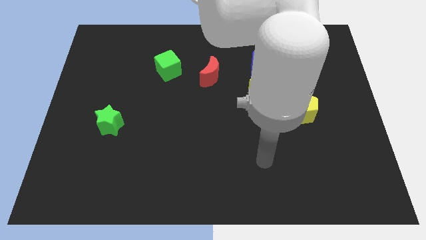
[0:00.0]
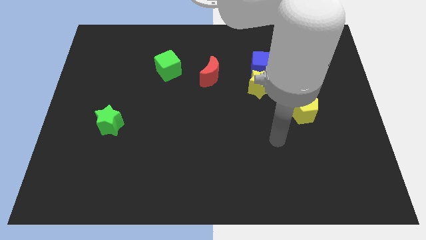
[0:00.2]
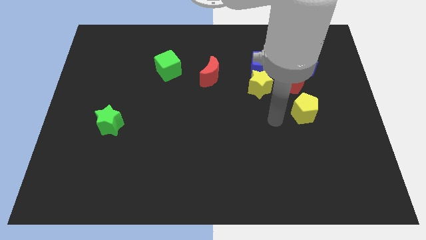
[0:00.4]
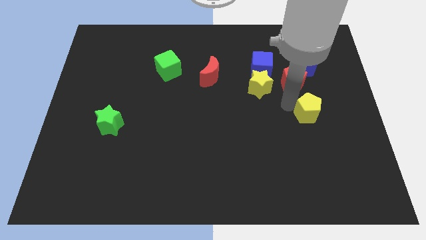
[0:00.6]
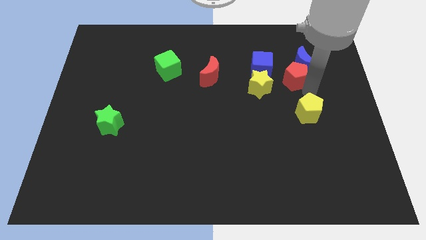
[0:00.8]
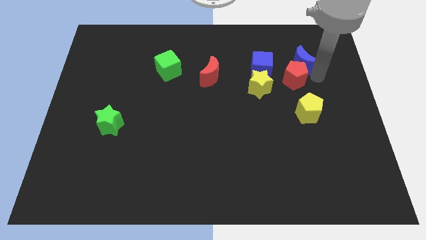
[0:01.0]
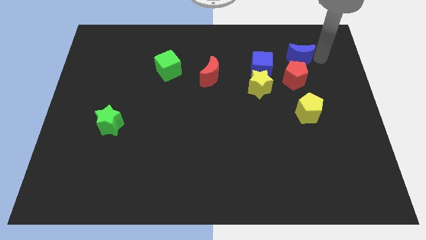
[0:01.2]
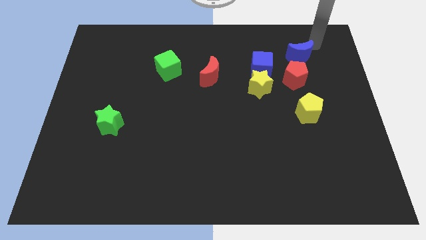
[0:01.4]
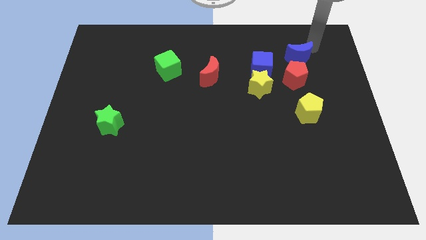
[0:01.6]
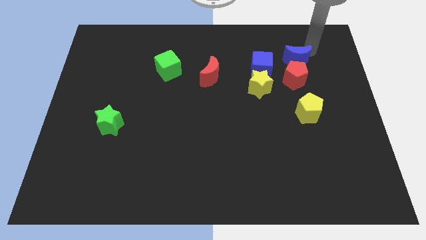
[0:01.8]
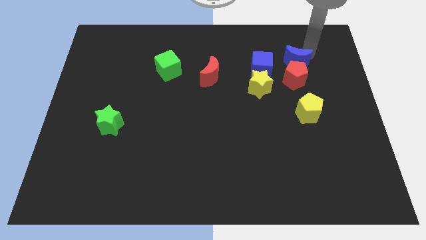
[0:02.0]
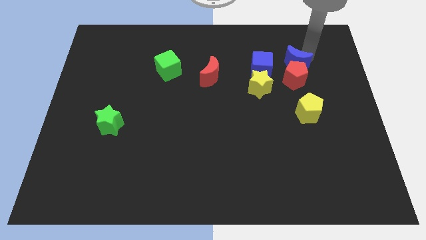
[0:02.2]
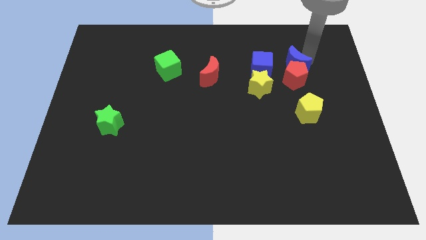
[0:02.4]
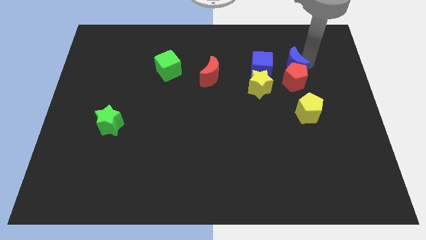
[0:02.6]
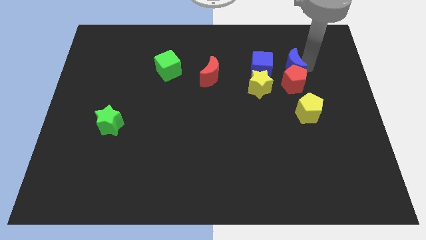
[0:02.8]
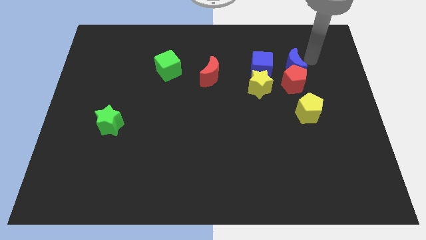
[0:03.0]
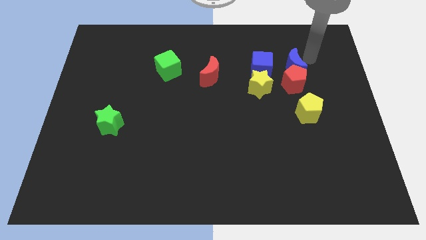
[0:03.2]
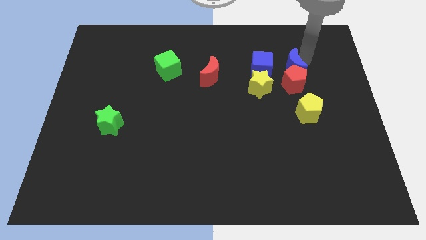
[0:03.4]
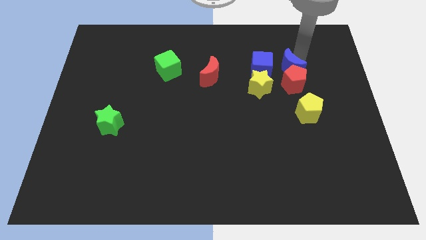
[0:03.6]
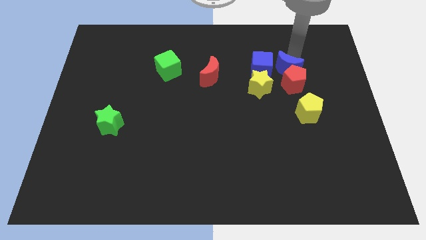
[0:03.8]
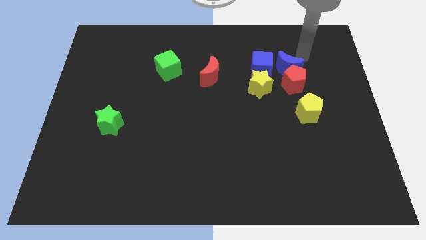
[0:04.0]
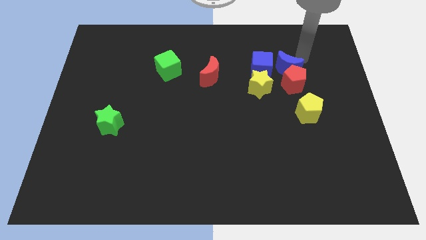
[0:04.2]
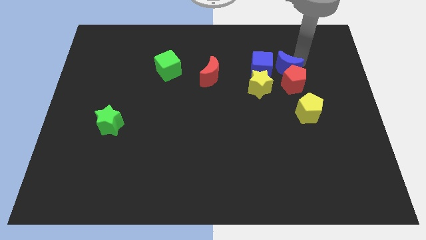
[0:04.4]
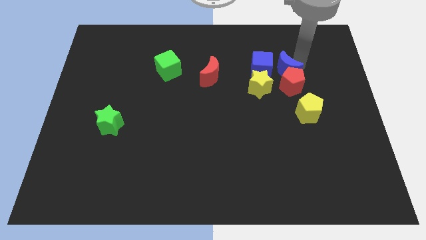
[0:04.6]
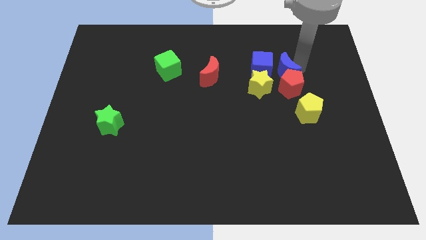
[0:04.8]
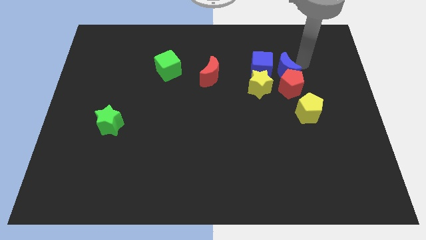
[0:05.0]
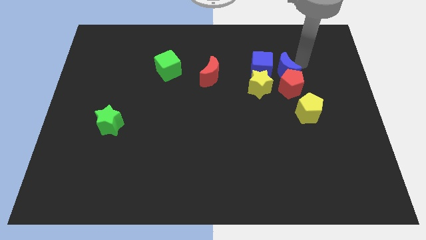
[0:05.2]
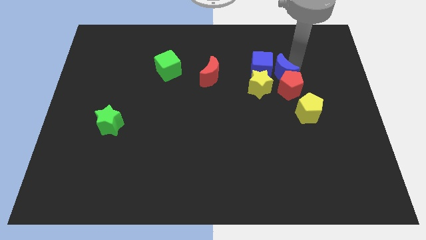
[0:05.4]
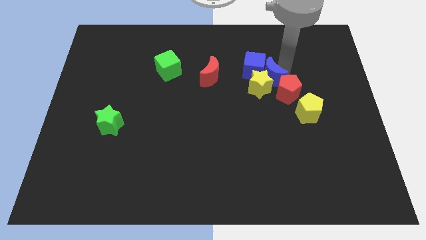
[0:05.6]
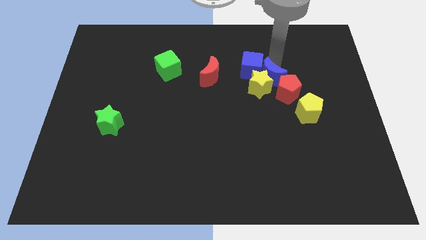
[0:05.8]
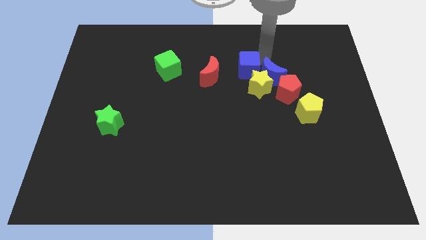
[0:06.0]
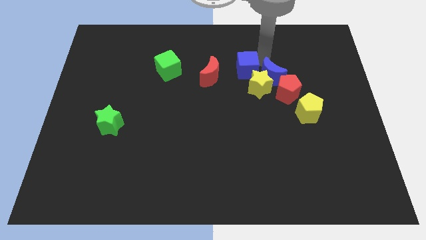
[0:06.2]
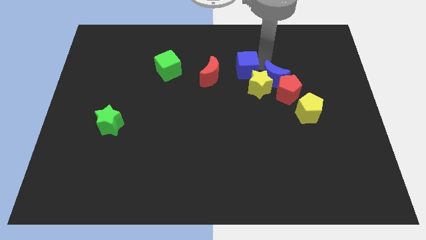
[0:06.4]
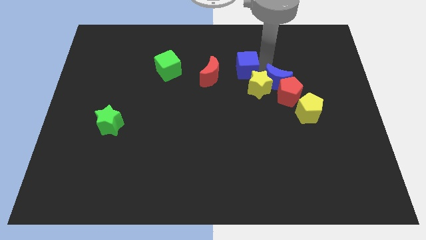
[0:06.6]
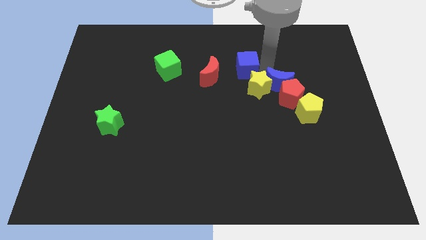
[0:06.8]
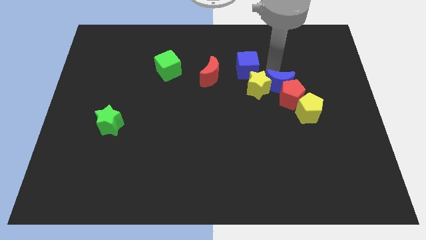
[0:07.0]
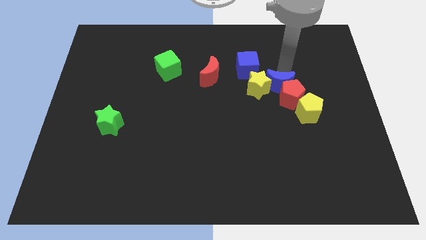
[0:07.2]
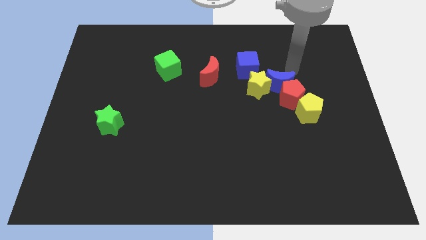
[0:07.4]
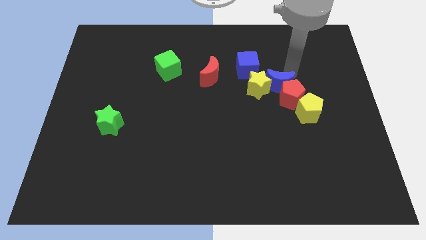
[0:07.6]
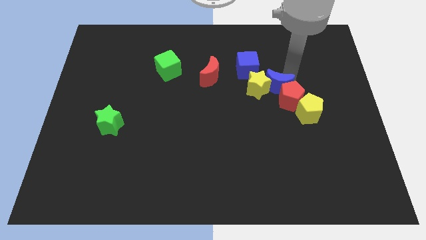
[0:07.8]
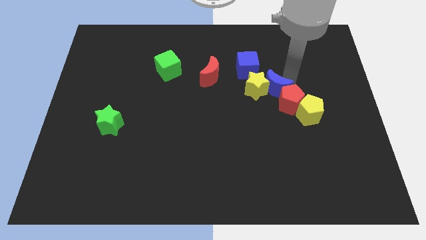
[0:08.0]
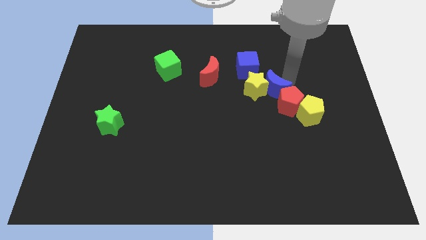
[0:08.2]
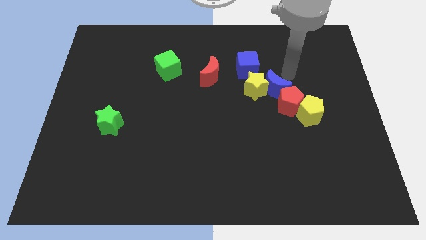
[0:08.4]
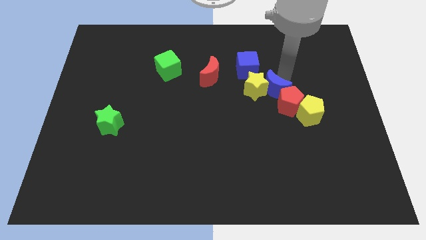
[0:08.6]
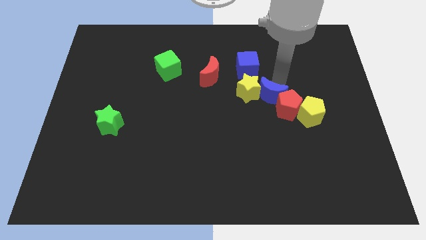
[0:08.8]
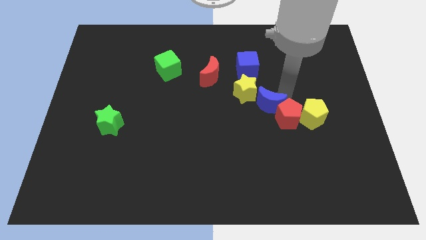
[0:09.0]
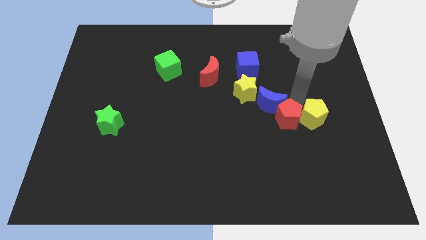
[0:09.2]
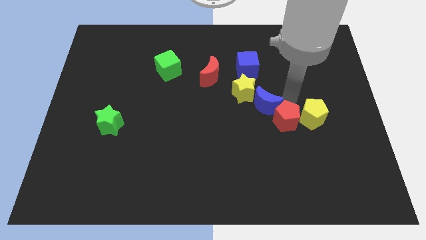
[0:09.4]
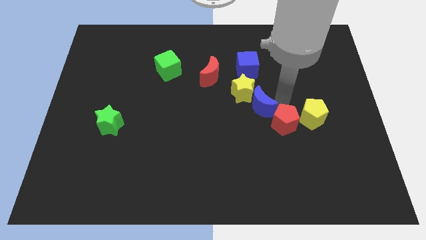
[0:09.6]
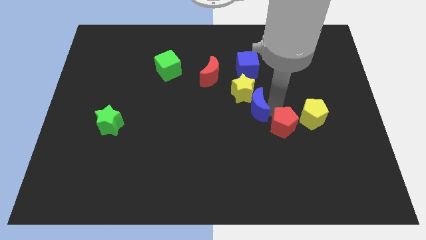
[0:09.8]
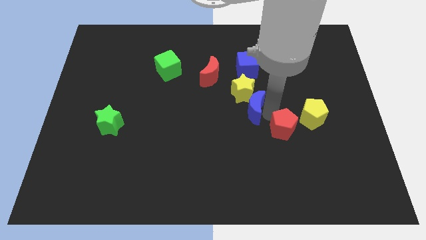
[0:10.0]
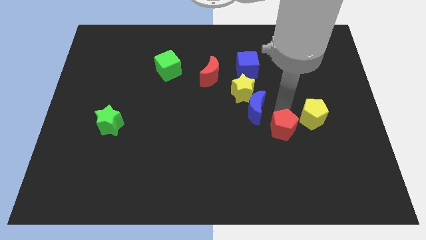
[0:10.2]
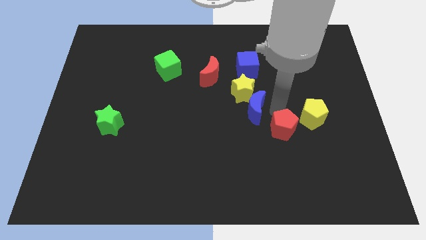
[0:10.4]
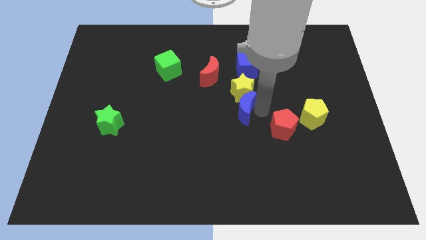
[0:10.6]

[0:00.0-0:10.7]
put the blue moon diagonally down and to the left of the yellow star
